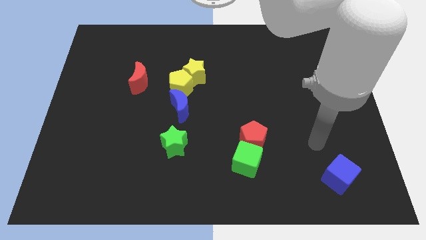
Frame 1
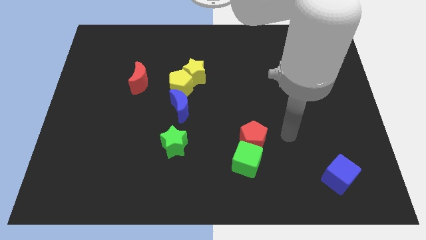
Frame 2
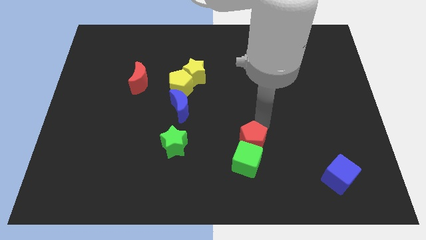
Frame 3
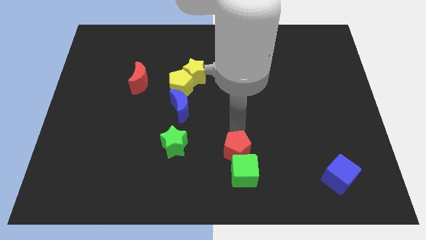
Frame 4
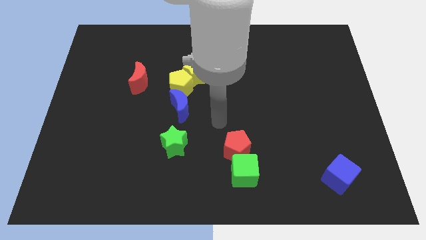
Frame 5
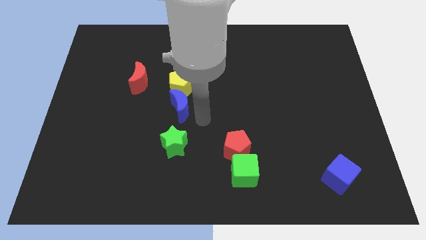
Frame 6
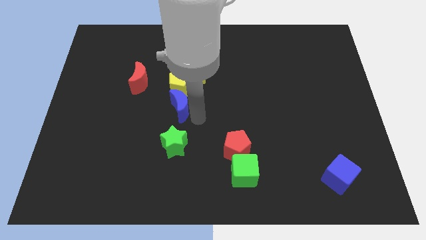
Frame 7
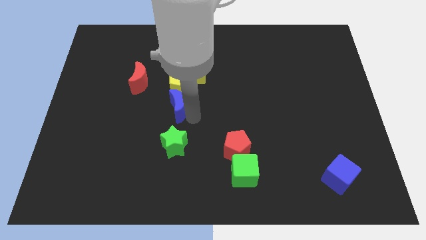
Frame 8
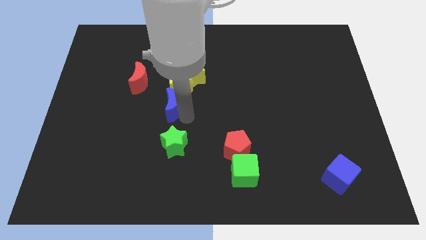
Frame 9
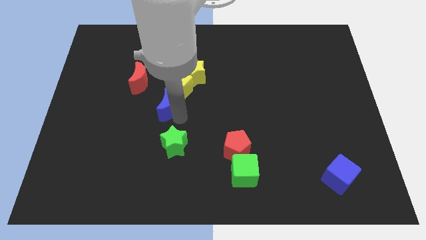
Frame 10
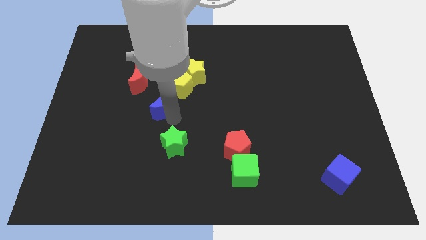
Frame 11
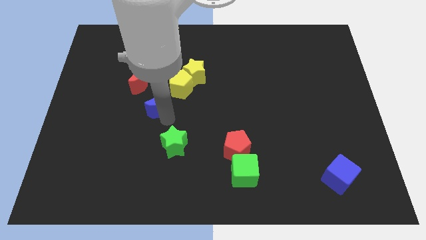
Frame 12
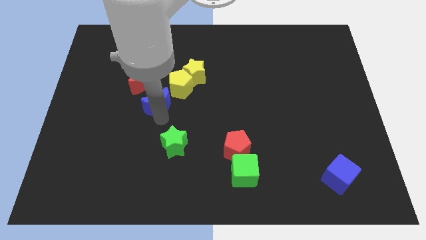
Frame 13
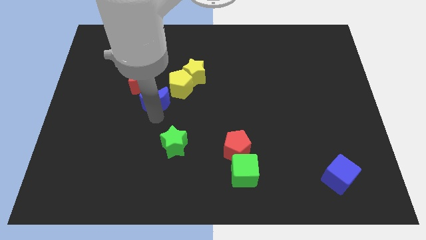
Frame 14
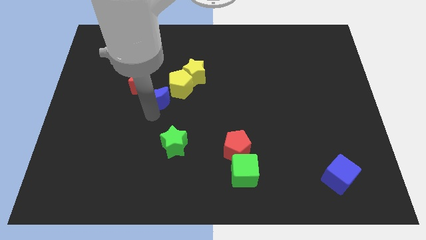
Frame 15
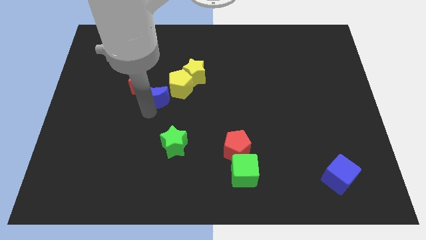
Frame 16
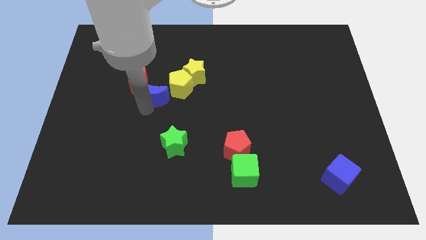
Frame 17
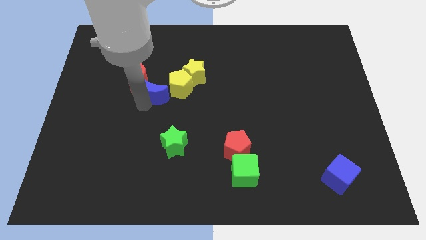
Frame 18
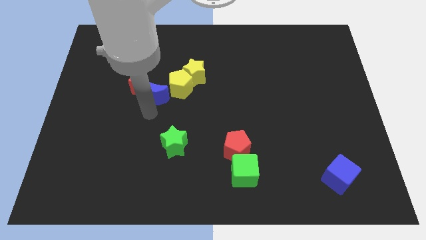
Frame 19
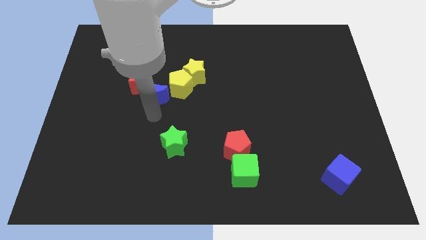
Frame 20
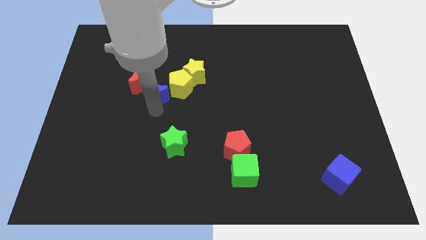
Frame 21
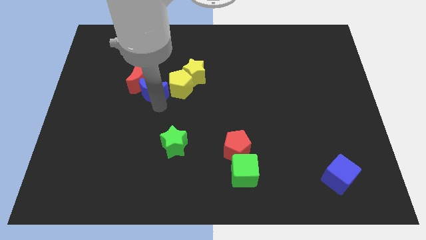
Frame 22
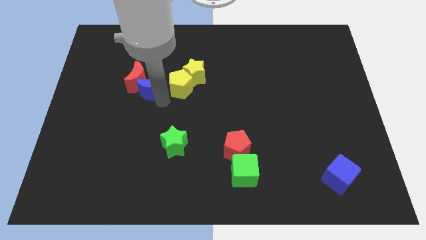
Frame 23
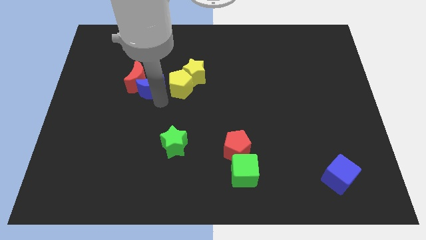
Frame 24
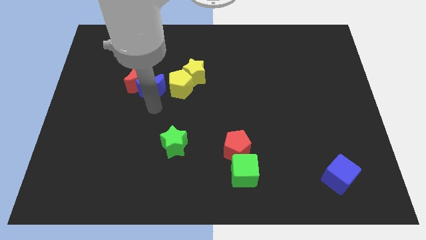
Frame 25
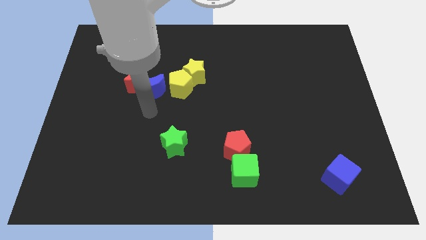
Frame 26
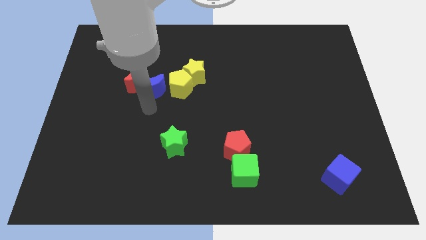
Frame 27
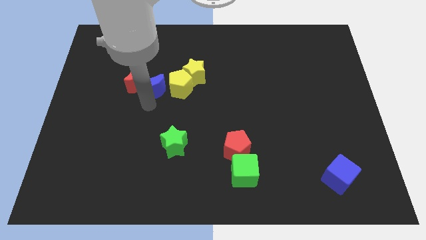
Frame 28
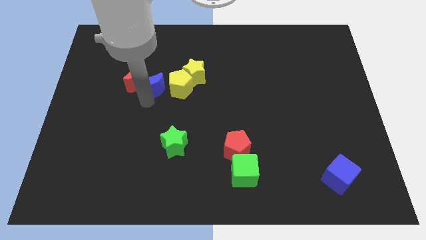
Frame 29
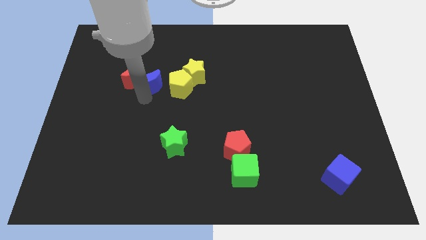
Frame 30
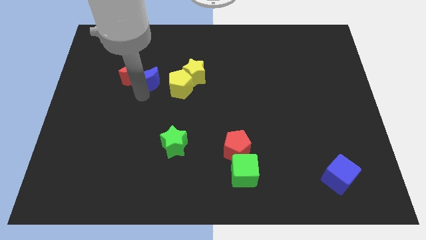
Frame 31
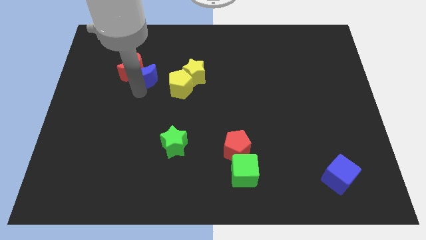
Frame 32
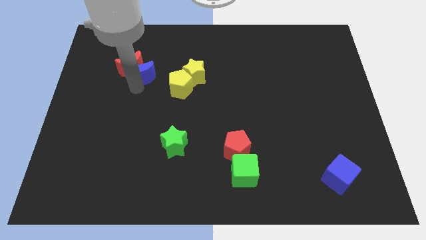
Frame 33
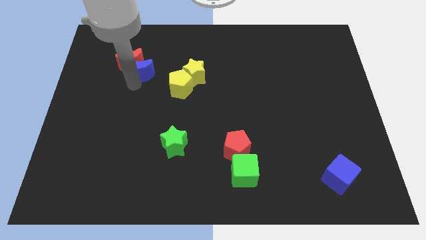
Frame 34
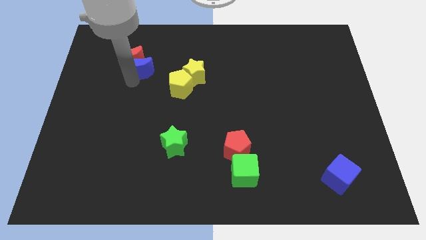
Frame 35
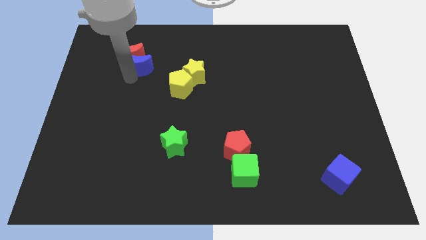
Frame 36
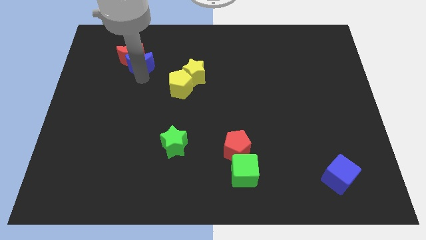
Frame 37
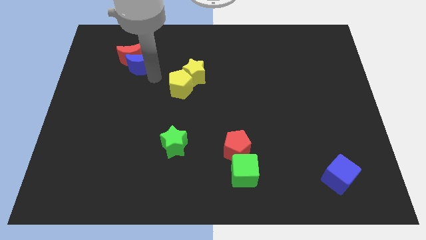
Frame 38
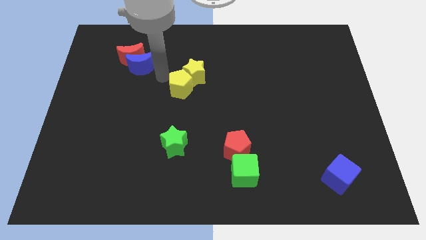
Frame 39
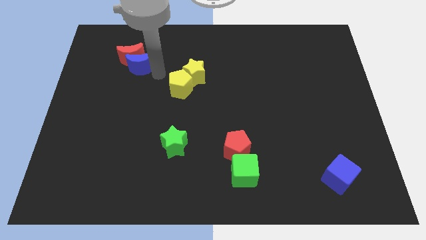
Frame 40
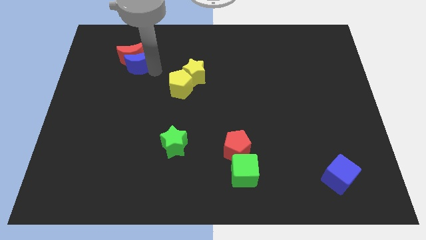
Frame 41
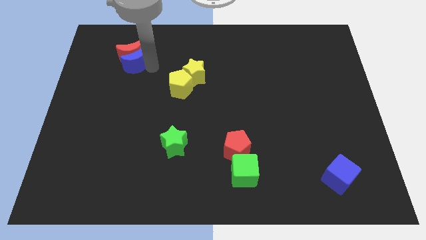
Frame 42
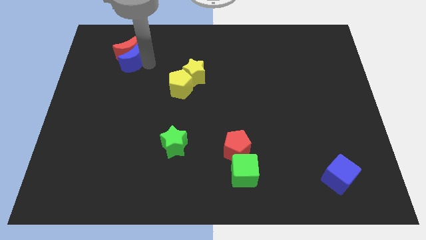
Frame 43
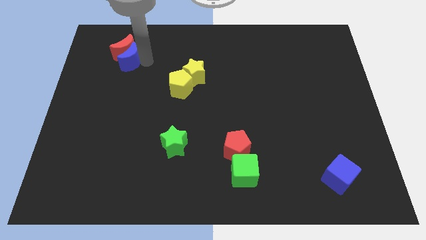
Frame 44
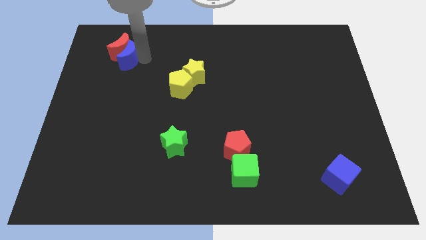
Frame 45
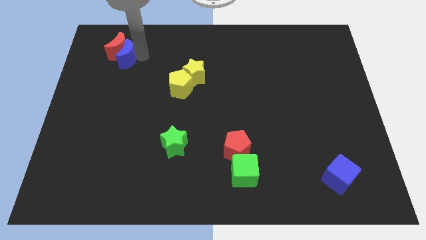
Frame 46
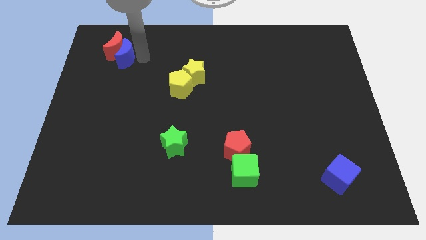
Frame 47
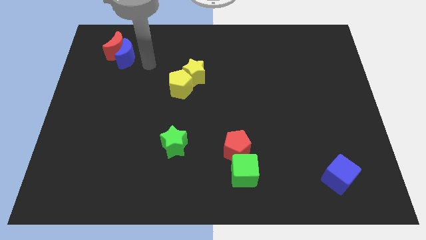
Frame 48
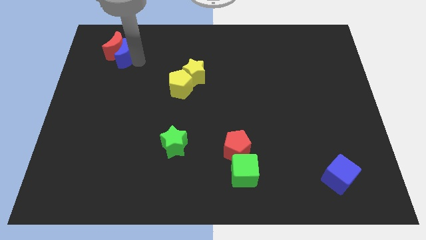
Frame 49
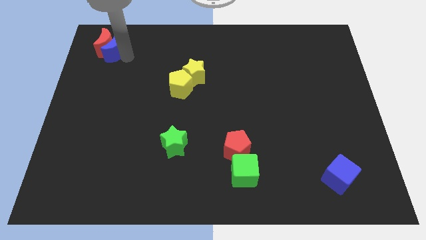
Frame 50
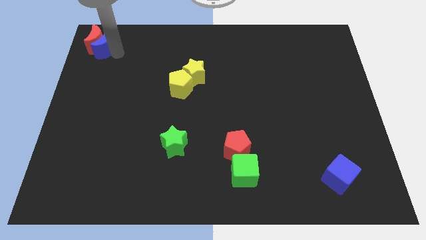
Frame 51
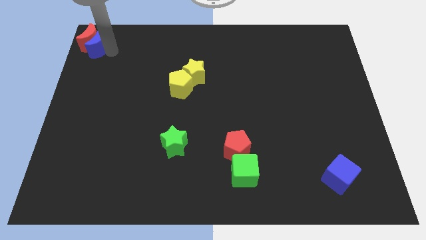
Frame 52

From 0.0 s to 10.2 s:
slide the blue moon to the top left

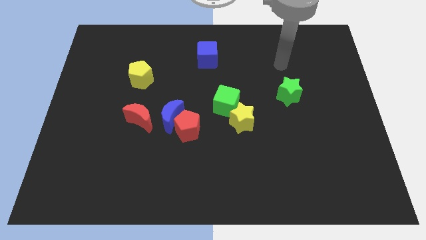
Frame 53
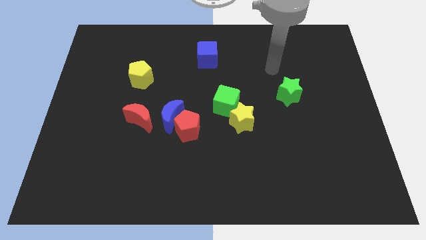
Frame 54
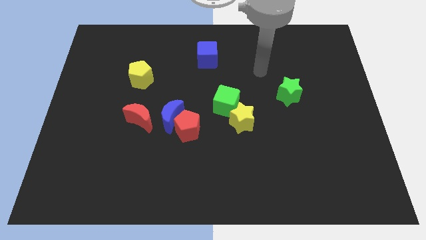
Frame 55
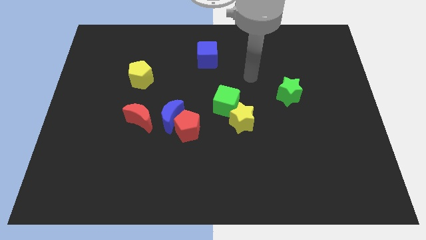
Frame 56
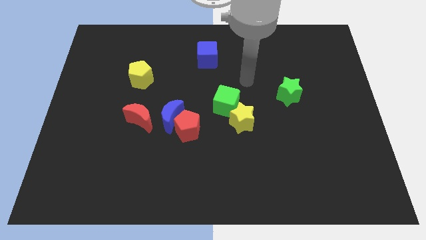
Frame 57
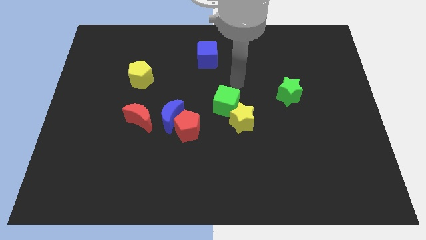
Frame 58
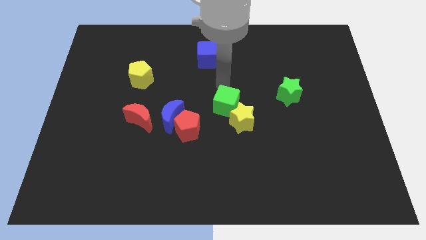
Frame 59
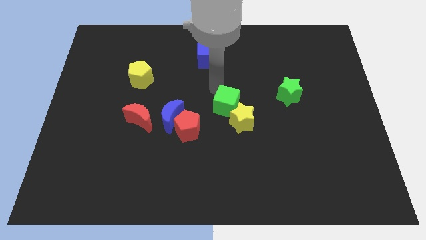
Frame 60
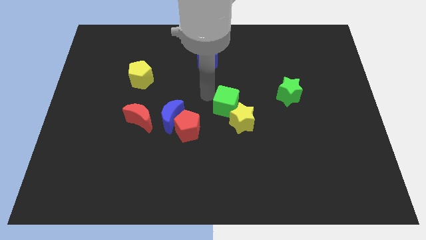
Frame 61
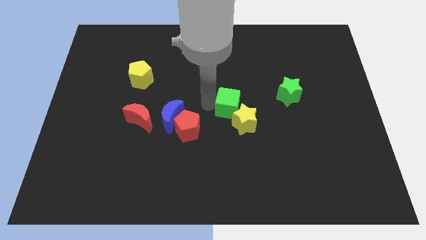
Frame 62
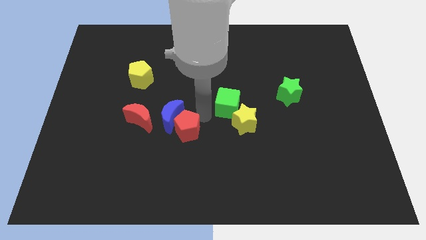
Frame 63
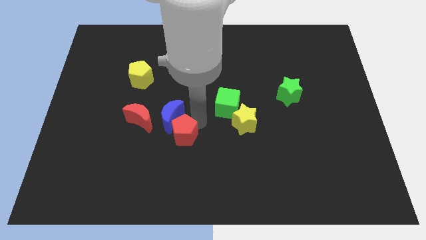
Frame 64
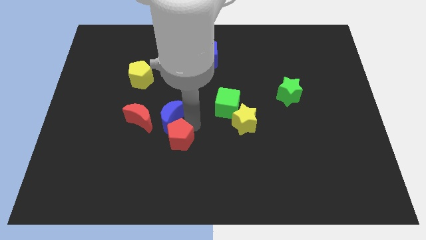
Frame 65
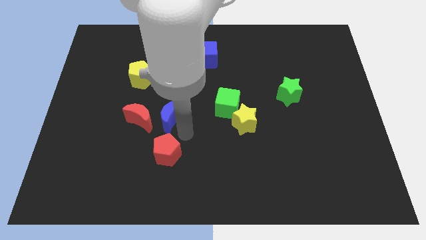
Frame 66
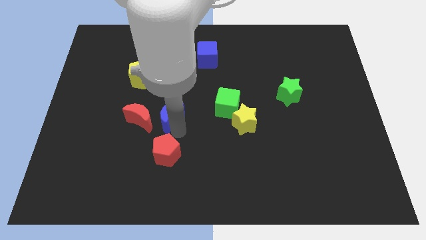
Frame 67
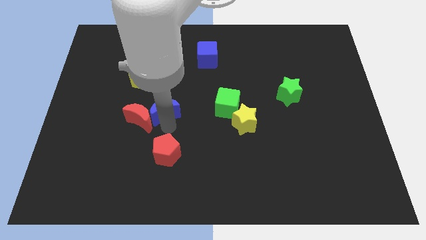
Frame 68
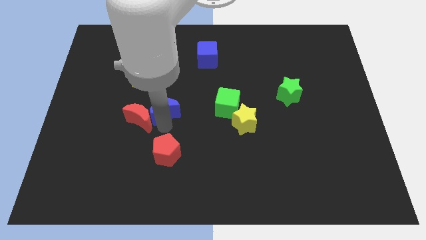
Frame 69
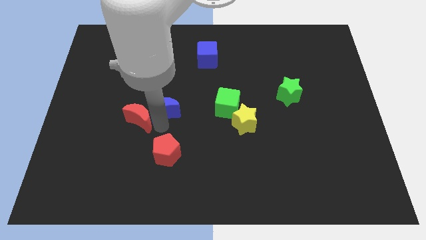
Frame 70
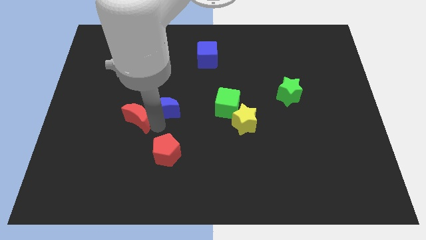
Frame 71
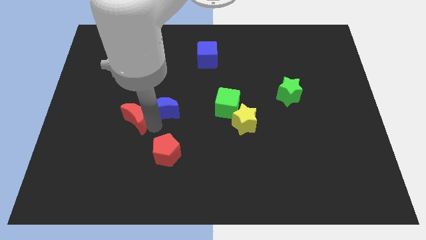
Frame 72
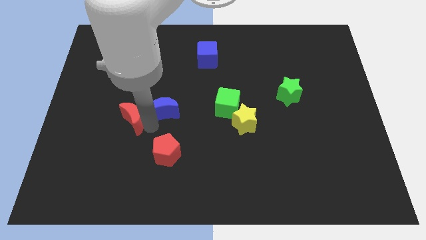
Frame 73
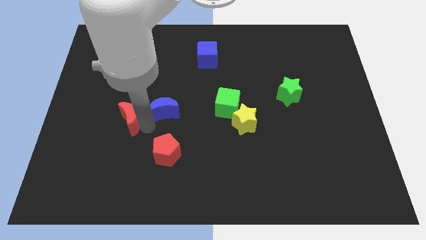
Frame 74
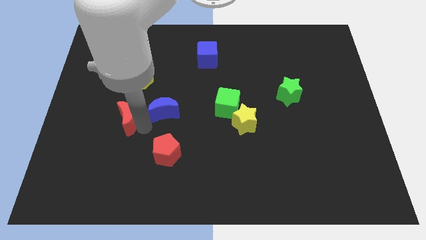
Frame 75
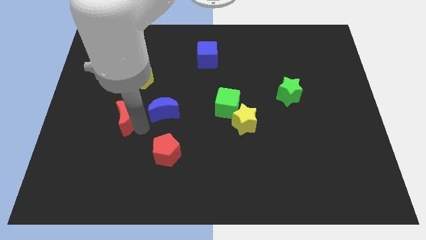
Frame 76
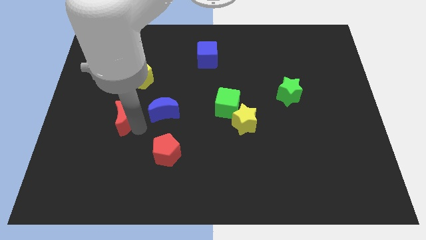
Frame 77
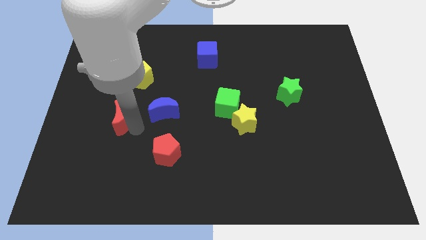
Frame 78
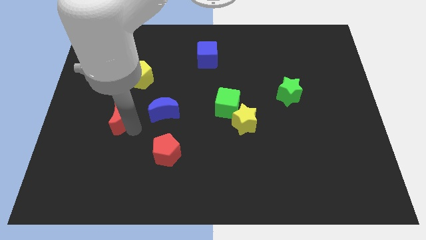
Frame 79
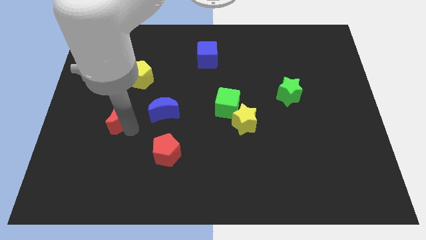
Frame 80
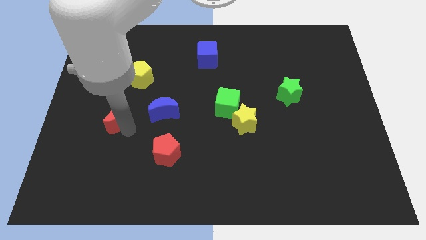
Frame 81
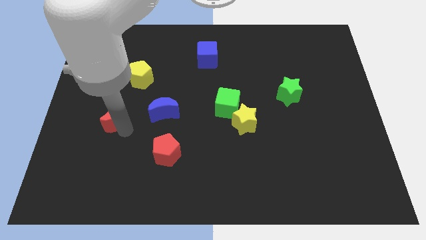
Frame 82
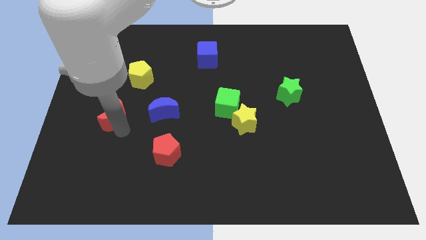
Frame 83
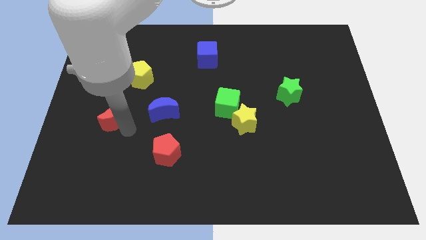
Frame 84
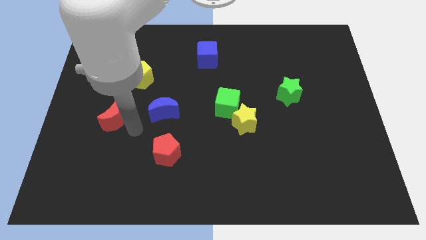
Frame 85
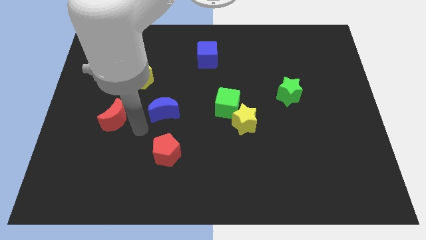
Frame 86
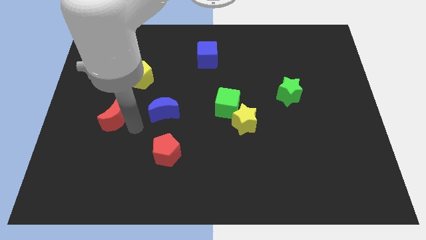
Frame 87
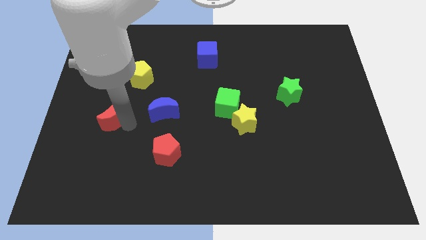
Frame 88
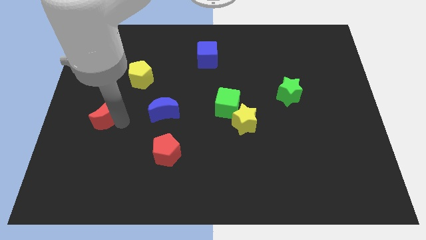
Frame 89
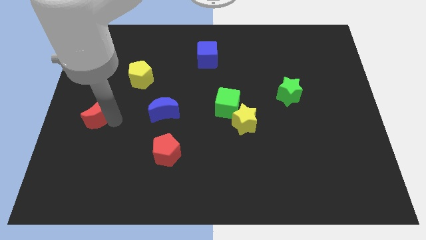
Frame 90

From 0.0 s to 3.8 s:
put the red moon to the left side of the board
